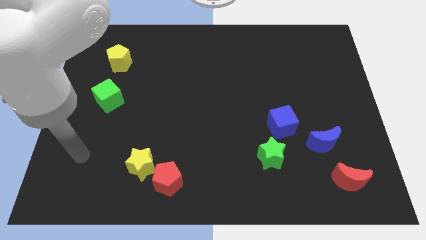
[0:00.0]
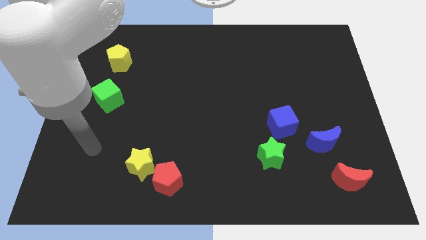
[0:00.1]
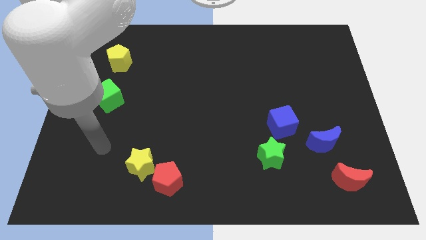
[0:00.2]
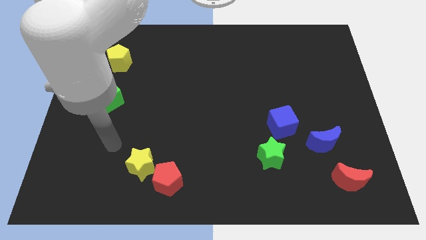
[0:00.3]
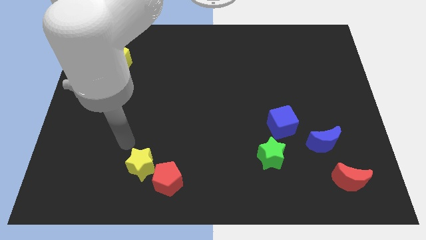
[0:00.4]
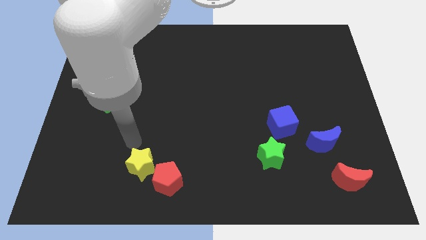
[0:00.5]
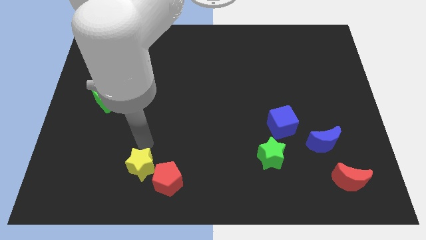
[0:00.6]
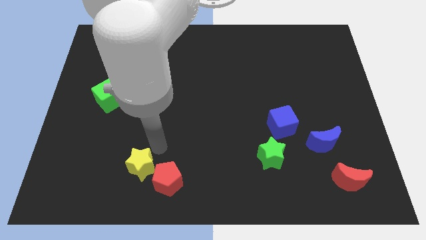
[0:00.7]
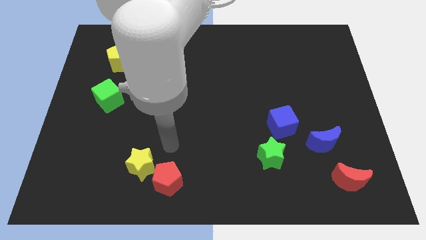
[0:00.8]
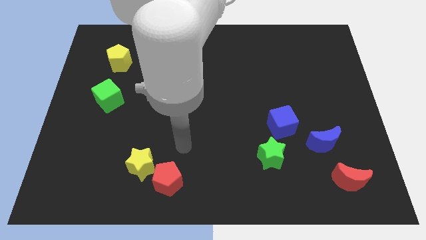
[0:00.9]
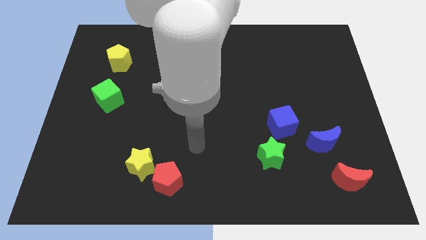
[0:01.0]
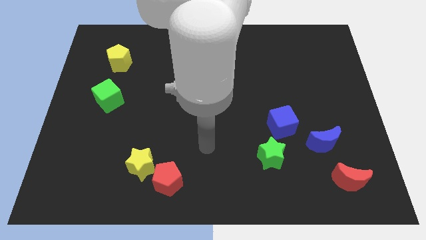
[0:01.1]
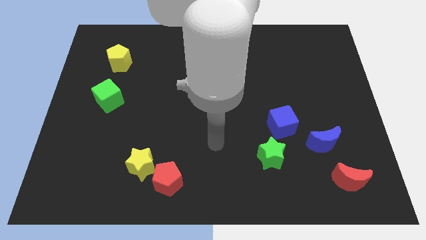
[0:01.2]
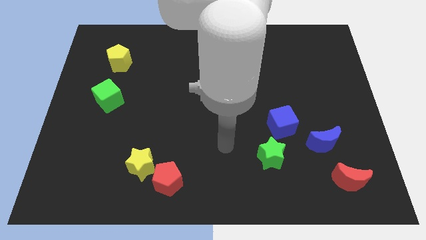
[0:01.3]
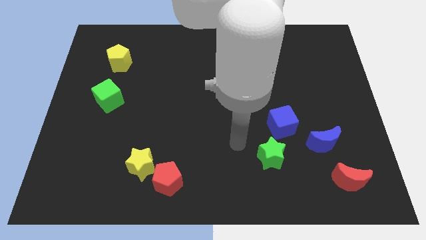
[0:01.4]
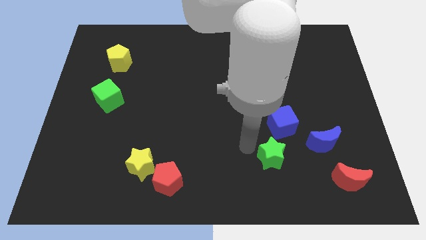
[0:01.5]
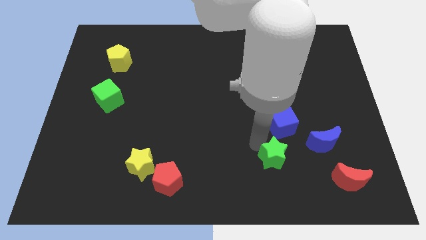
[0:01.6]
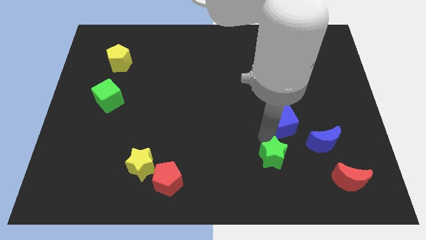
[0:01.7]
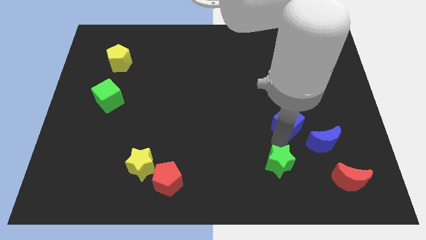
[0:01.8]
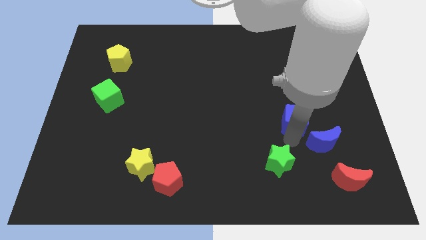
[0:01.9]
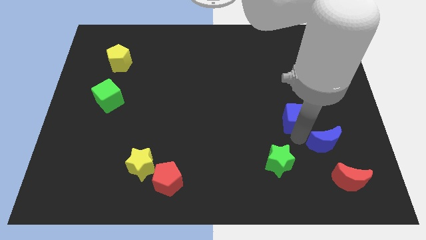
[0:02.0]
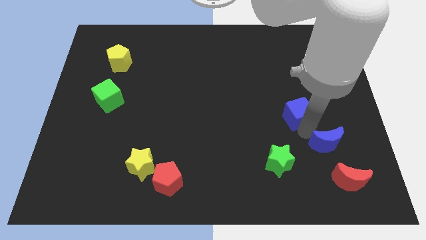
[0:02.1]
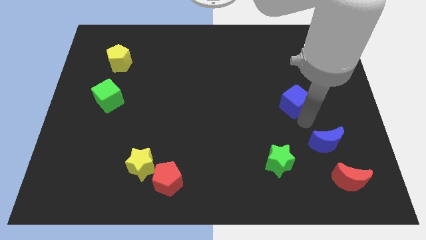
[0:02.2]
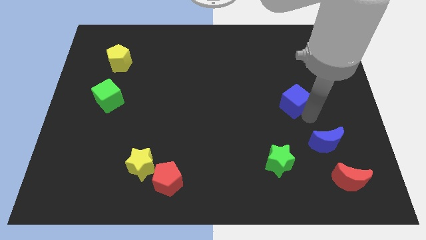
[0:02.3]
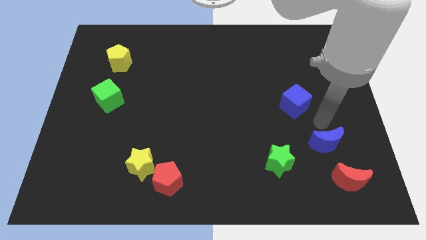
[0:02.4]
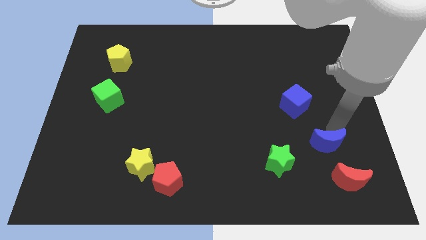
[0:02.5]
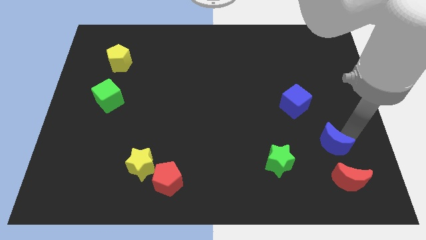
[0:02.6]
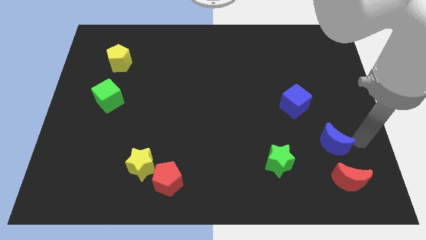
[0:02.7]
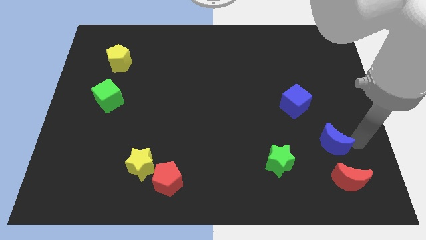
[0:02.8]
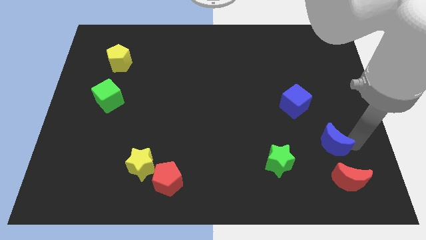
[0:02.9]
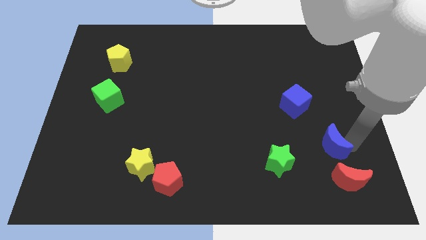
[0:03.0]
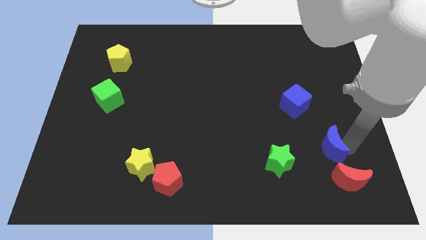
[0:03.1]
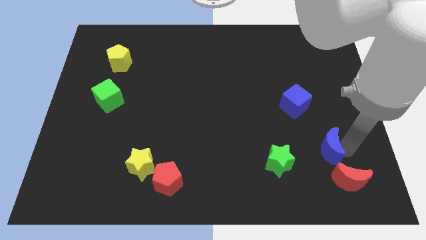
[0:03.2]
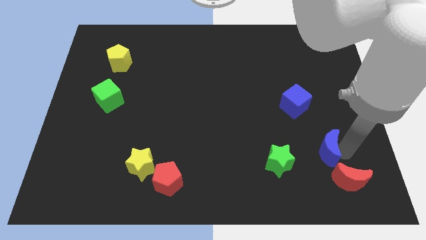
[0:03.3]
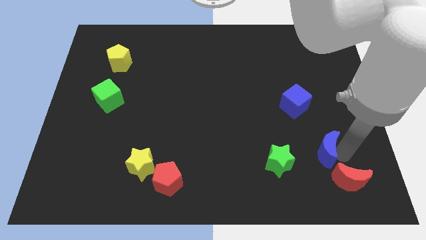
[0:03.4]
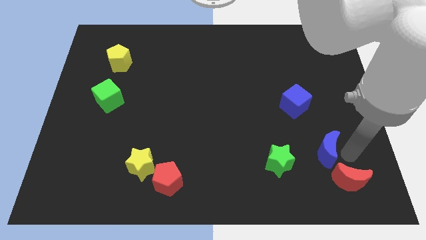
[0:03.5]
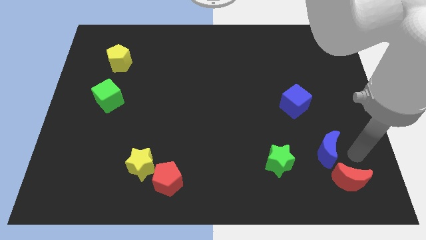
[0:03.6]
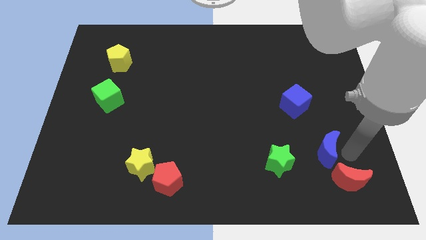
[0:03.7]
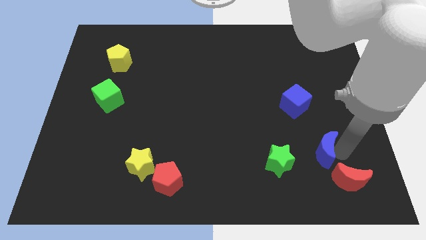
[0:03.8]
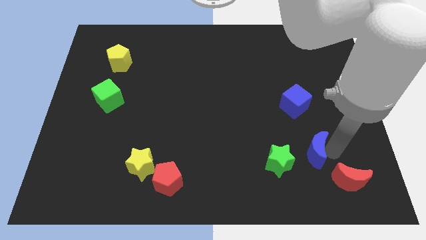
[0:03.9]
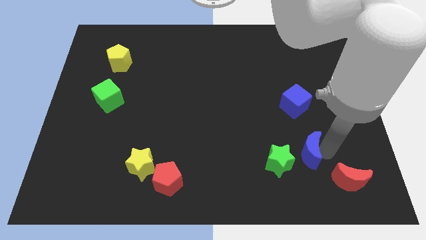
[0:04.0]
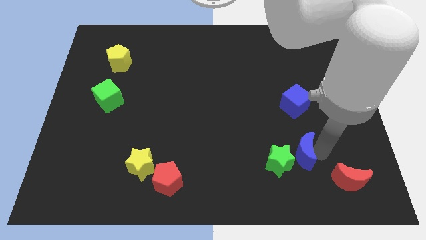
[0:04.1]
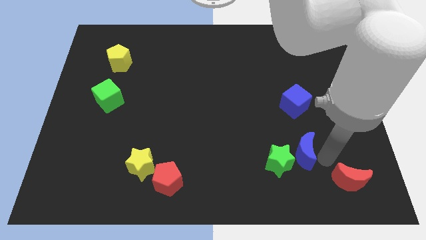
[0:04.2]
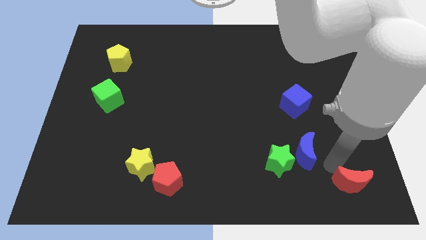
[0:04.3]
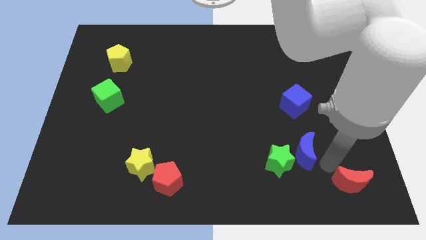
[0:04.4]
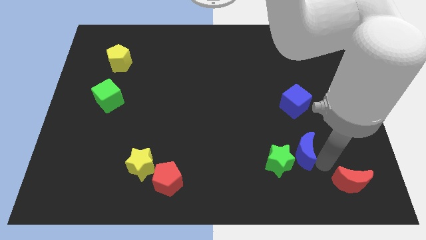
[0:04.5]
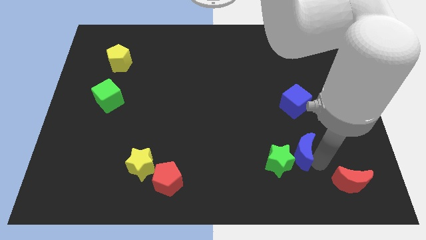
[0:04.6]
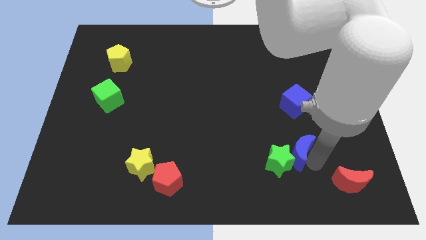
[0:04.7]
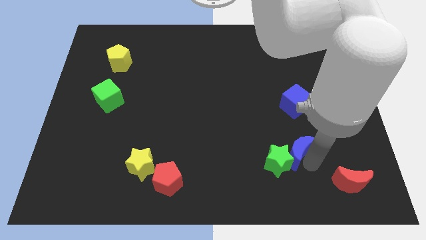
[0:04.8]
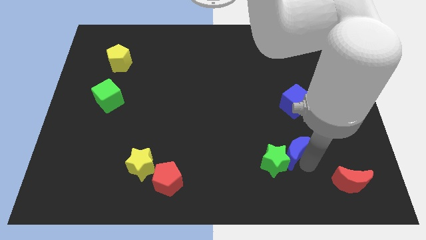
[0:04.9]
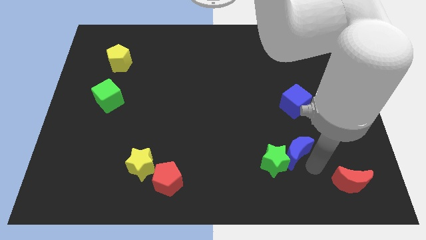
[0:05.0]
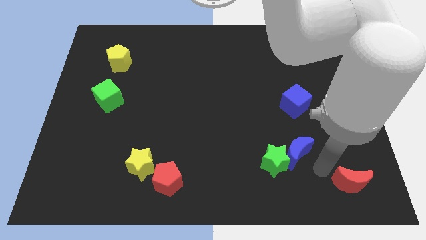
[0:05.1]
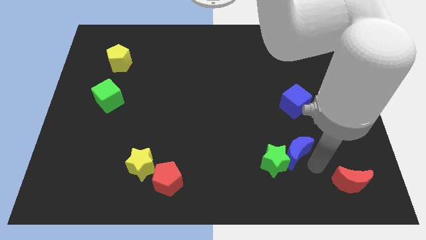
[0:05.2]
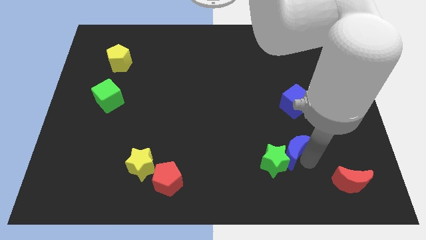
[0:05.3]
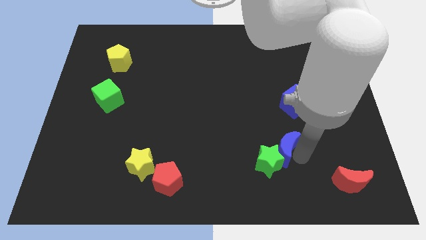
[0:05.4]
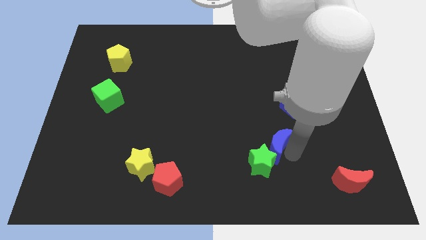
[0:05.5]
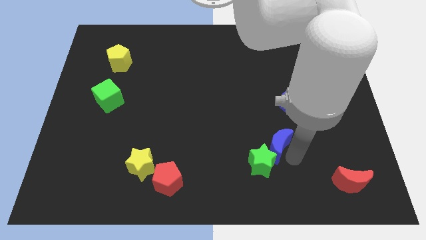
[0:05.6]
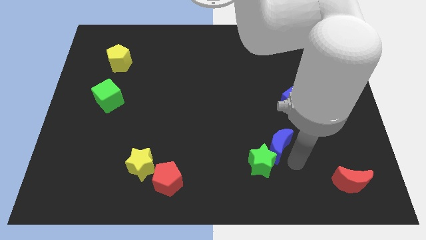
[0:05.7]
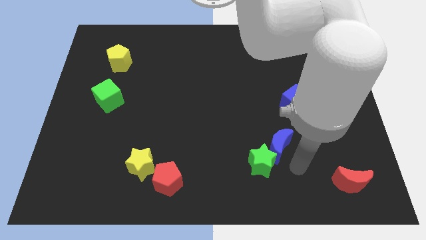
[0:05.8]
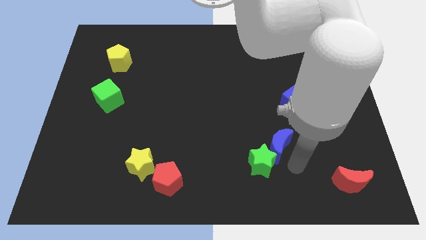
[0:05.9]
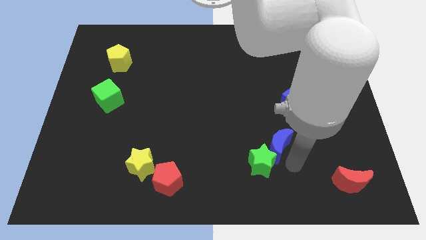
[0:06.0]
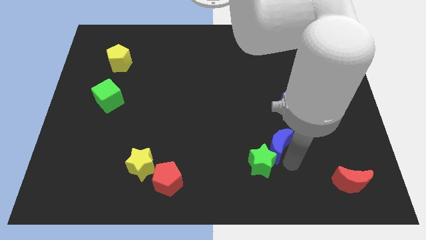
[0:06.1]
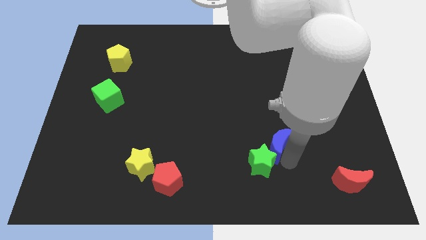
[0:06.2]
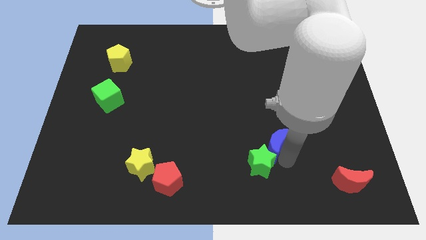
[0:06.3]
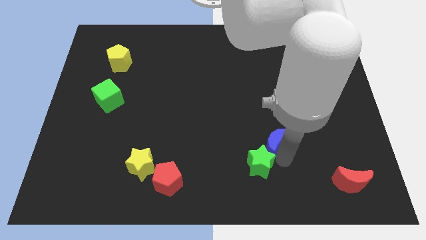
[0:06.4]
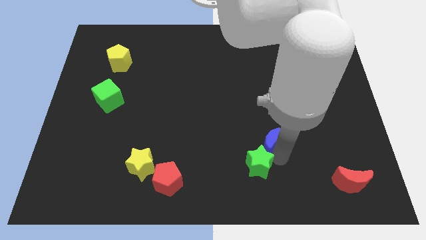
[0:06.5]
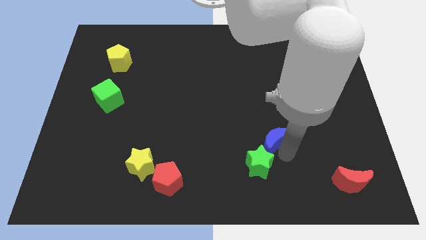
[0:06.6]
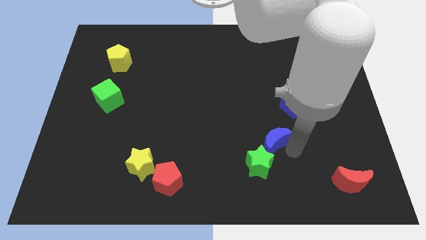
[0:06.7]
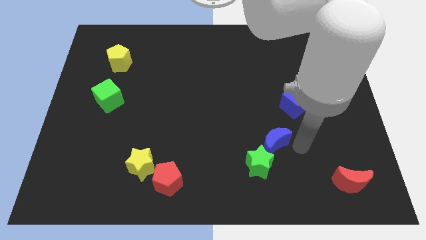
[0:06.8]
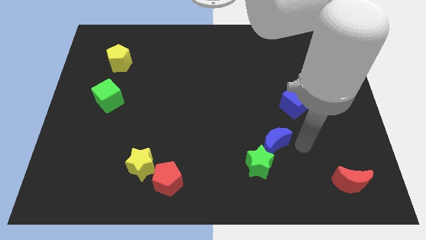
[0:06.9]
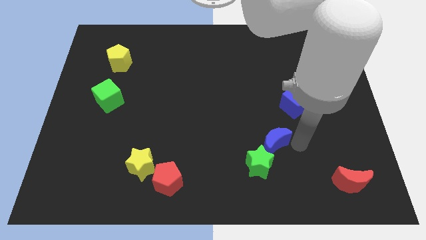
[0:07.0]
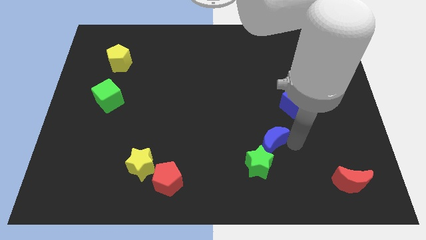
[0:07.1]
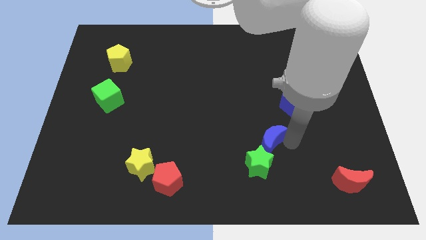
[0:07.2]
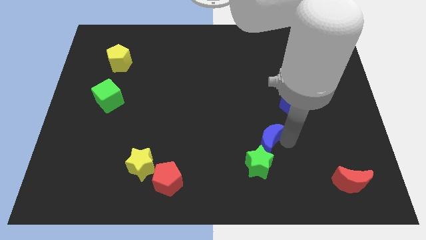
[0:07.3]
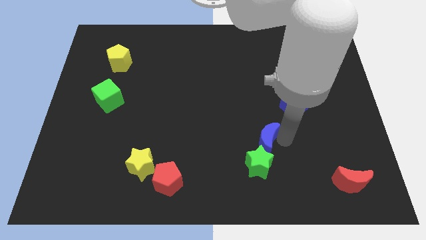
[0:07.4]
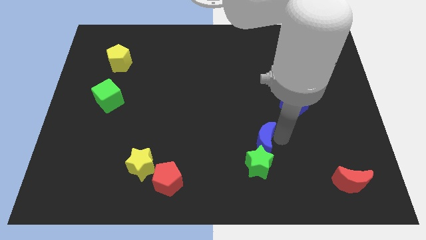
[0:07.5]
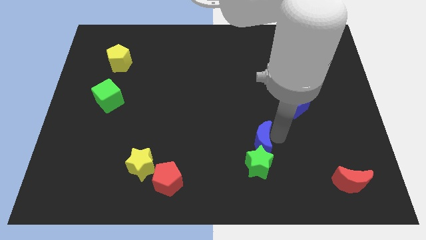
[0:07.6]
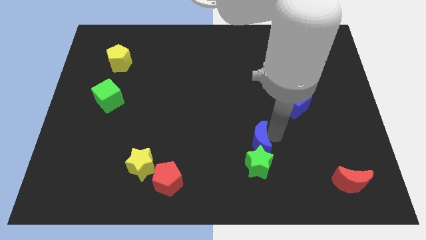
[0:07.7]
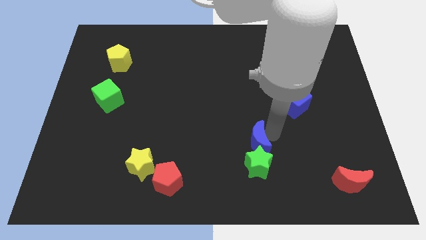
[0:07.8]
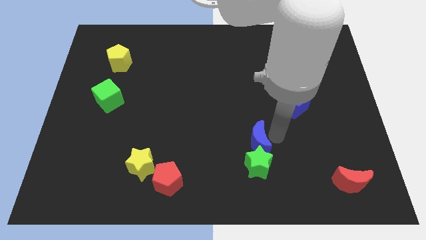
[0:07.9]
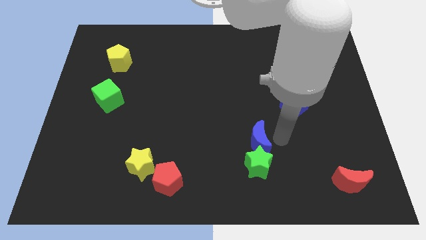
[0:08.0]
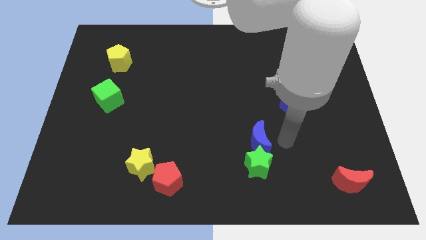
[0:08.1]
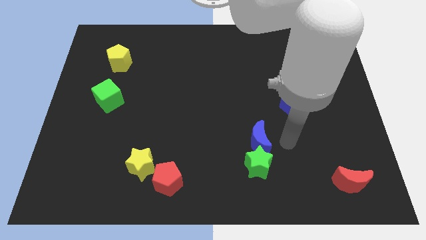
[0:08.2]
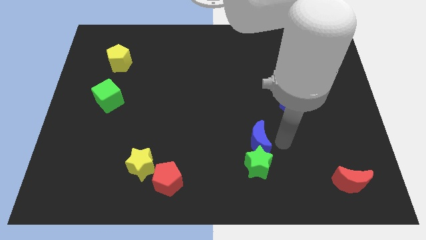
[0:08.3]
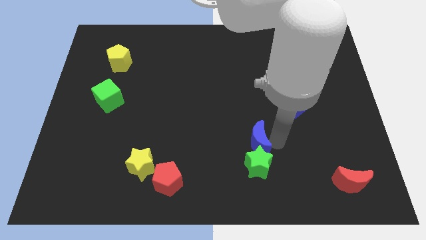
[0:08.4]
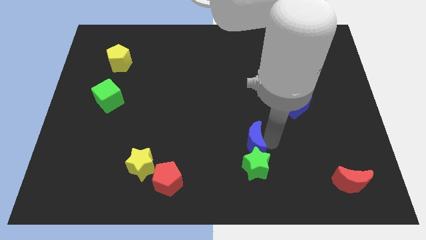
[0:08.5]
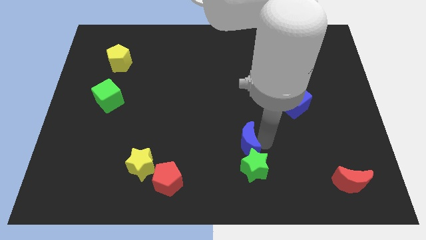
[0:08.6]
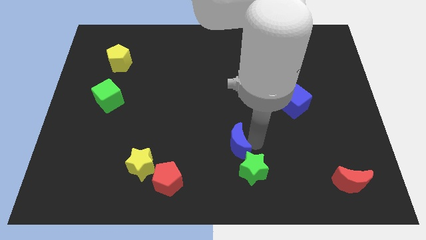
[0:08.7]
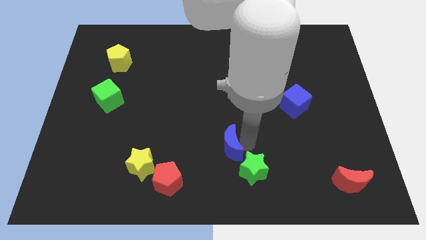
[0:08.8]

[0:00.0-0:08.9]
slide the blue moon to the left
